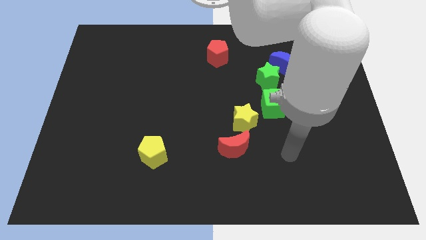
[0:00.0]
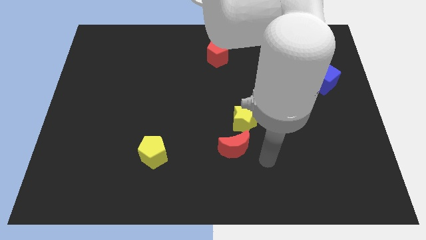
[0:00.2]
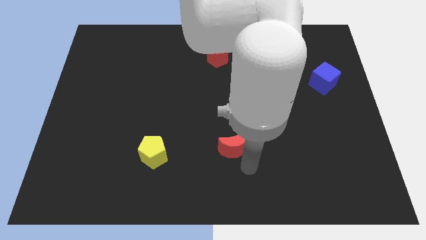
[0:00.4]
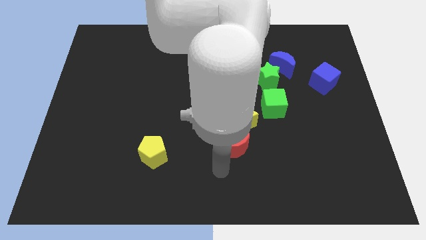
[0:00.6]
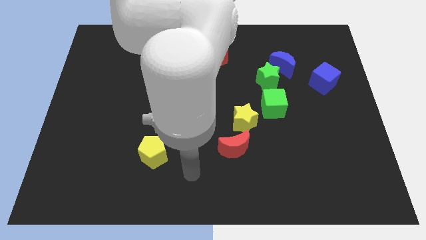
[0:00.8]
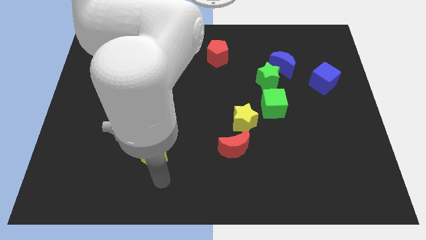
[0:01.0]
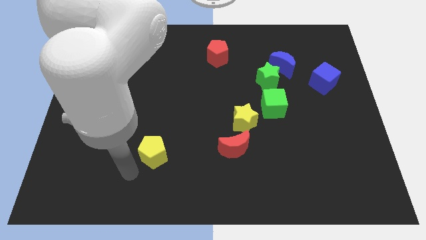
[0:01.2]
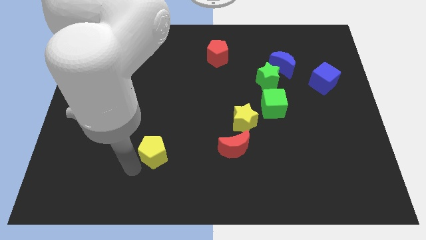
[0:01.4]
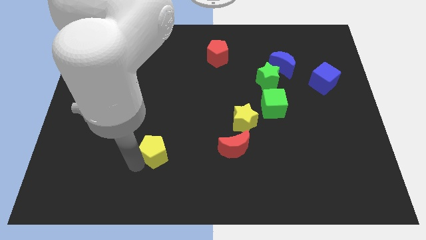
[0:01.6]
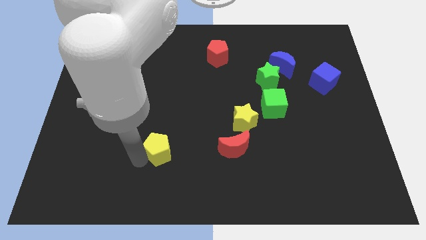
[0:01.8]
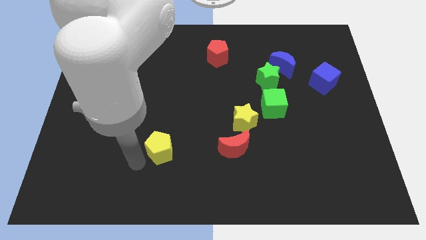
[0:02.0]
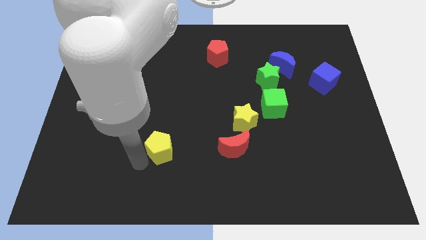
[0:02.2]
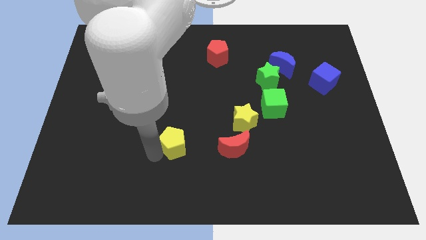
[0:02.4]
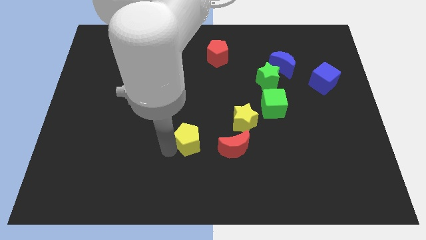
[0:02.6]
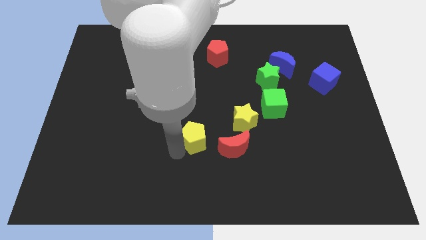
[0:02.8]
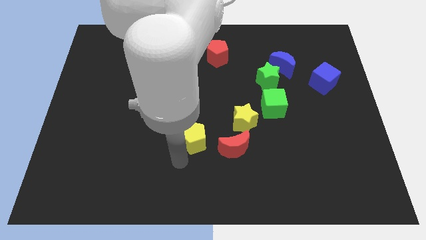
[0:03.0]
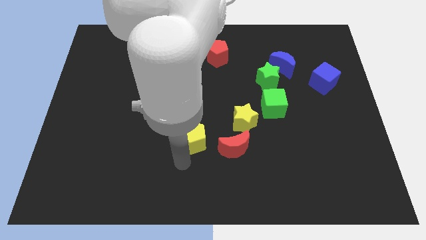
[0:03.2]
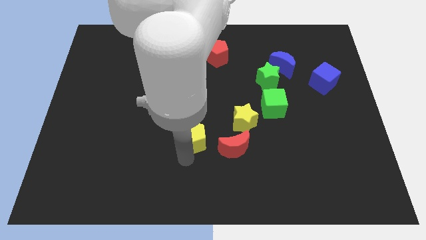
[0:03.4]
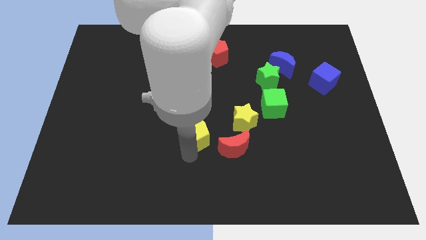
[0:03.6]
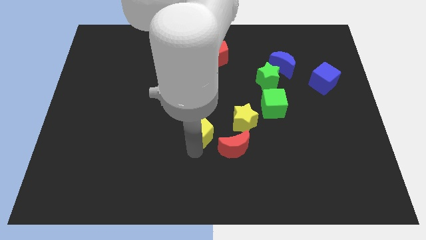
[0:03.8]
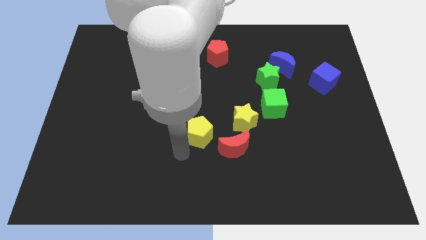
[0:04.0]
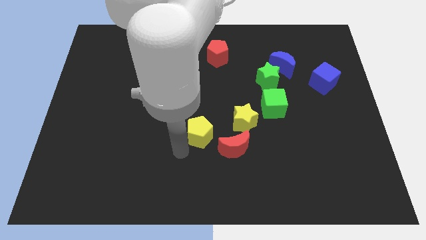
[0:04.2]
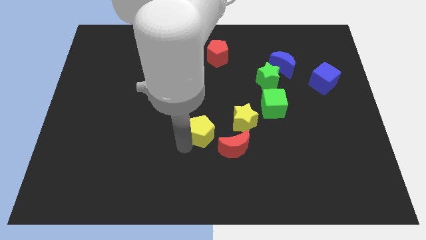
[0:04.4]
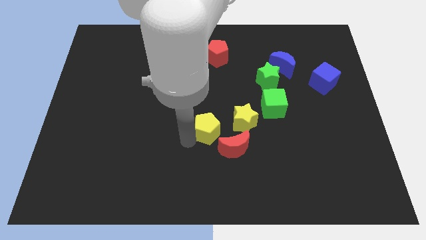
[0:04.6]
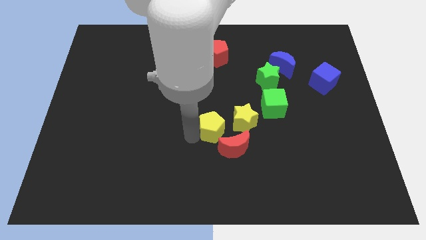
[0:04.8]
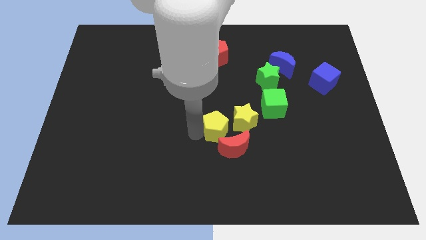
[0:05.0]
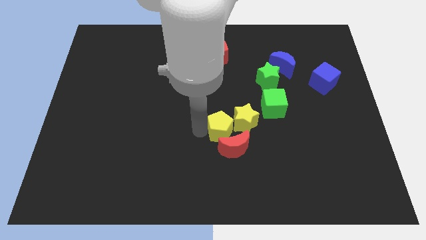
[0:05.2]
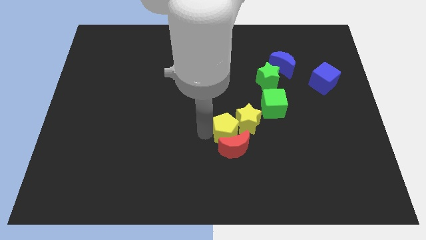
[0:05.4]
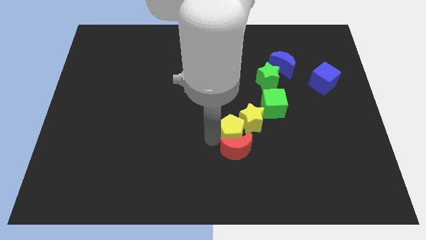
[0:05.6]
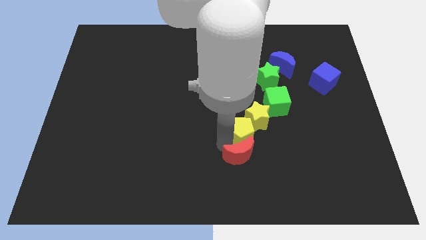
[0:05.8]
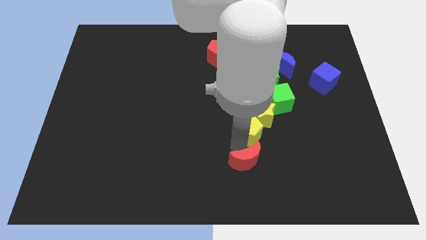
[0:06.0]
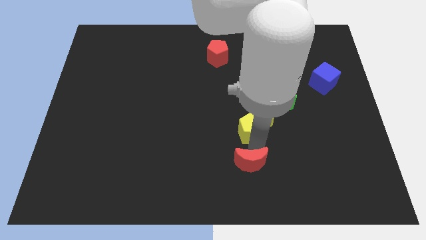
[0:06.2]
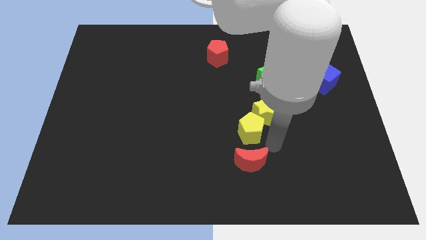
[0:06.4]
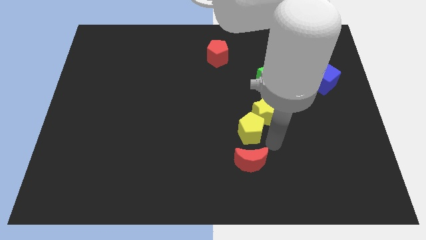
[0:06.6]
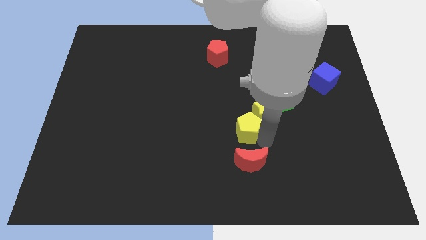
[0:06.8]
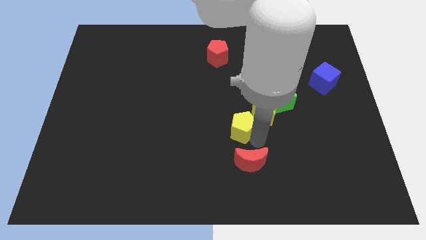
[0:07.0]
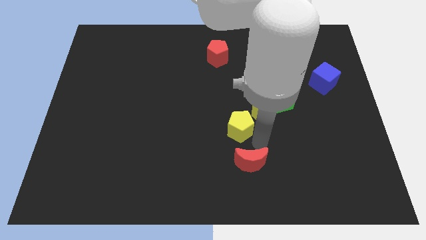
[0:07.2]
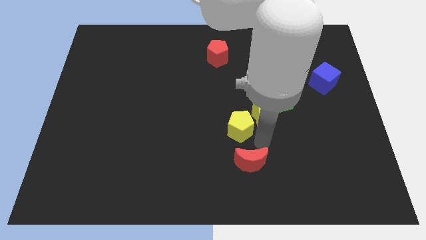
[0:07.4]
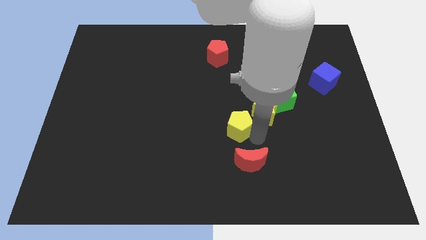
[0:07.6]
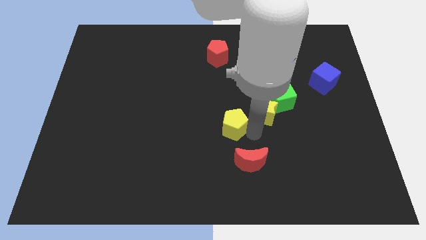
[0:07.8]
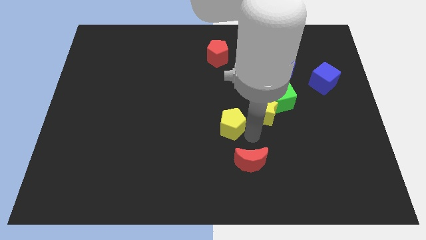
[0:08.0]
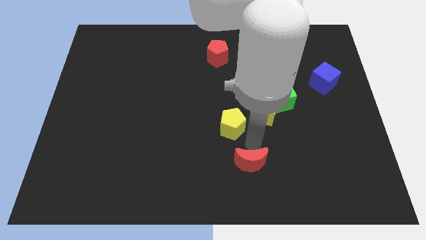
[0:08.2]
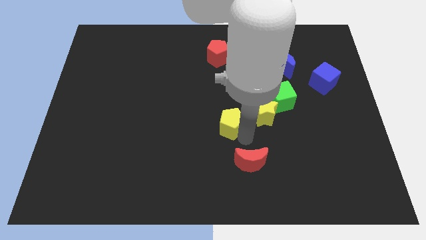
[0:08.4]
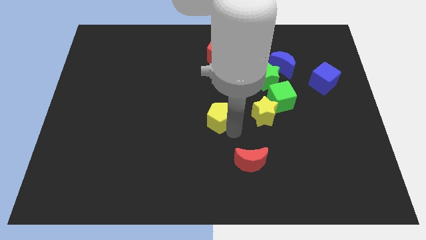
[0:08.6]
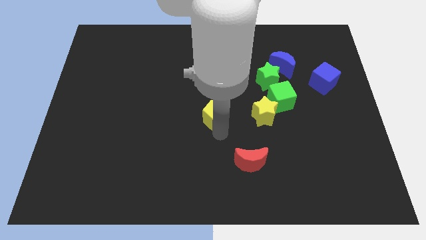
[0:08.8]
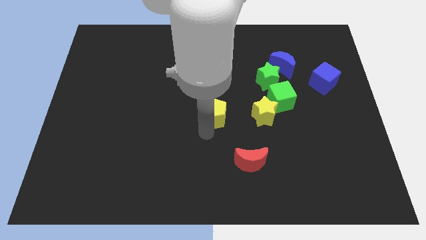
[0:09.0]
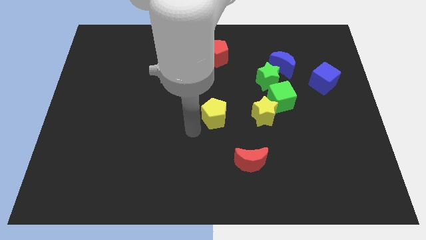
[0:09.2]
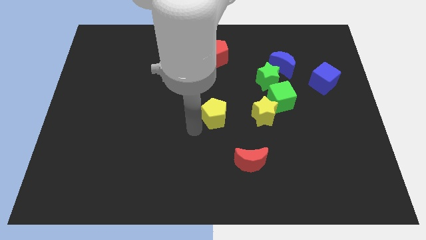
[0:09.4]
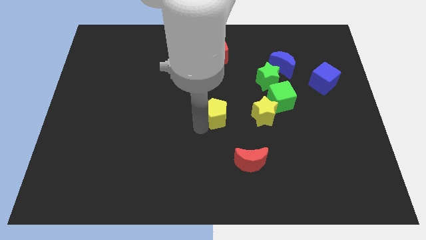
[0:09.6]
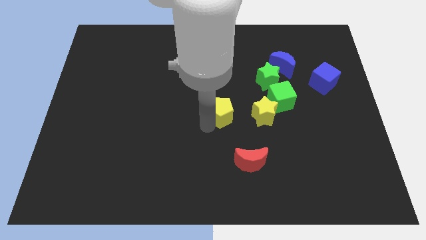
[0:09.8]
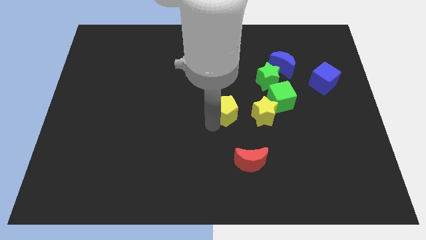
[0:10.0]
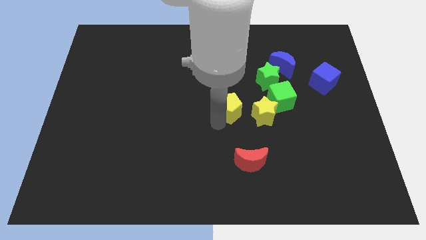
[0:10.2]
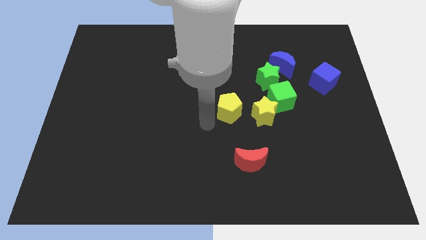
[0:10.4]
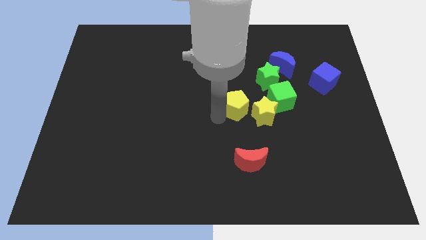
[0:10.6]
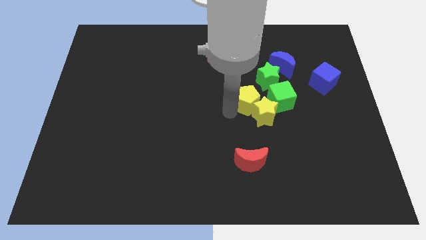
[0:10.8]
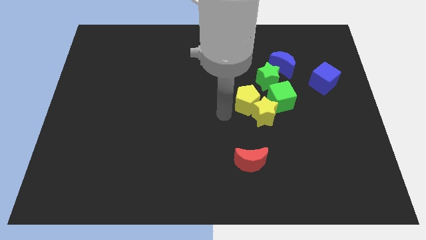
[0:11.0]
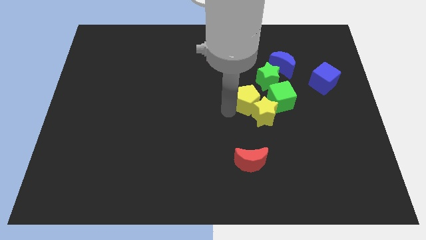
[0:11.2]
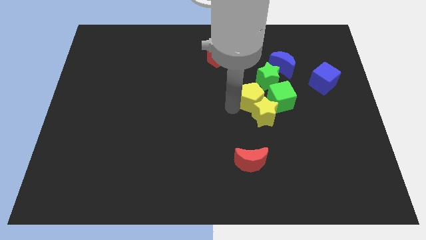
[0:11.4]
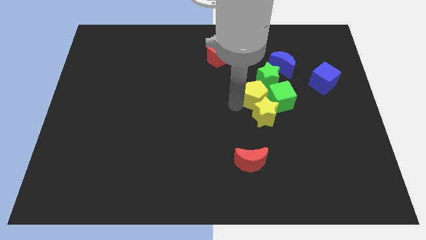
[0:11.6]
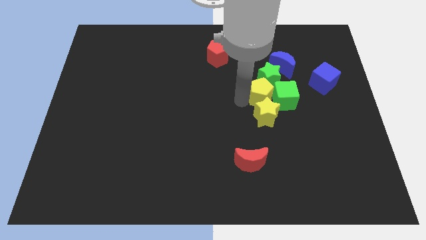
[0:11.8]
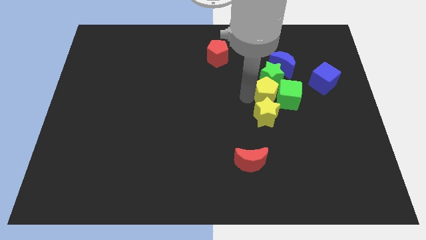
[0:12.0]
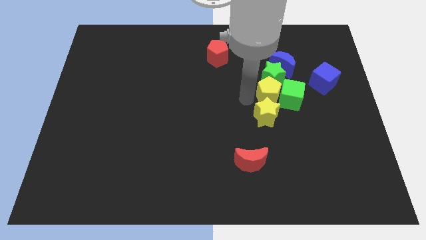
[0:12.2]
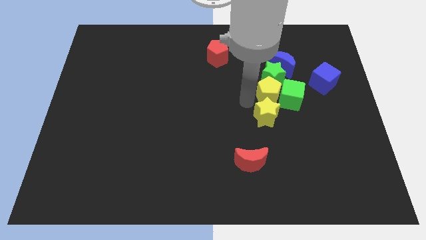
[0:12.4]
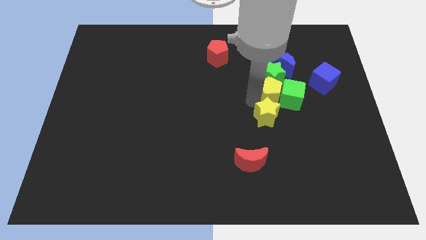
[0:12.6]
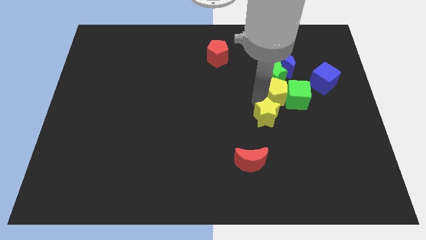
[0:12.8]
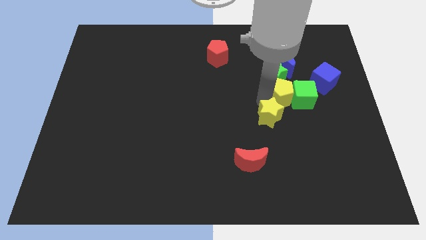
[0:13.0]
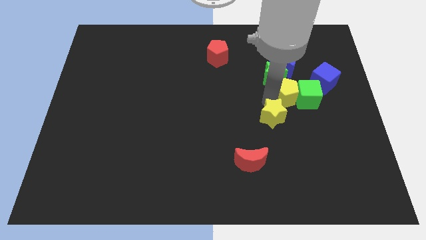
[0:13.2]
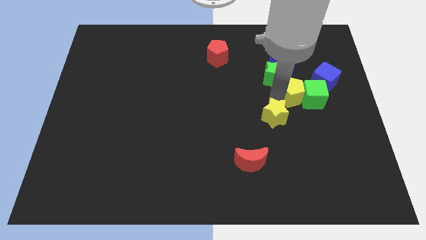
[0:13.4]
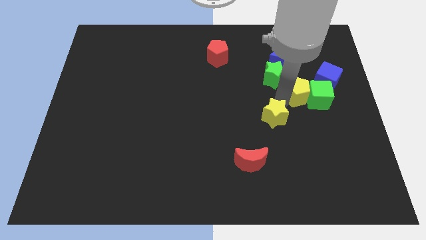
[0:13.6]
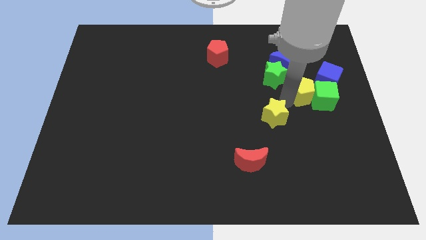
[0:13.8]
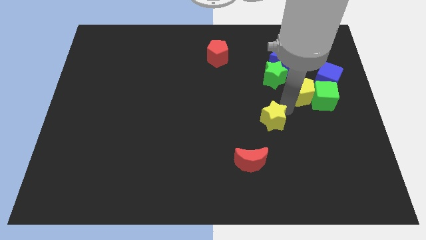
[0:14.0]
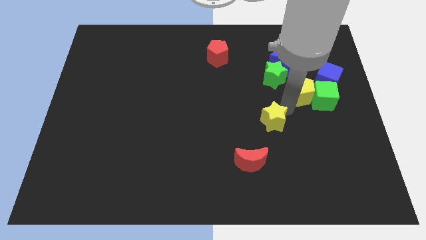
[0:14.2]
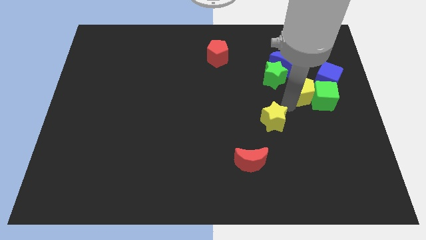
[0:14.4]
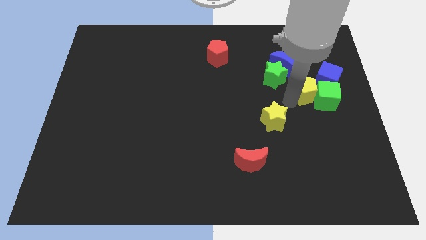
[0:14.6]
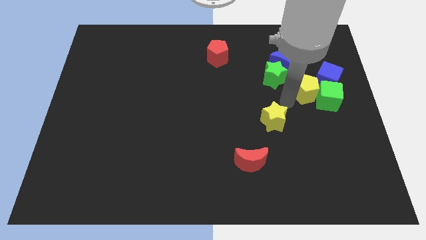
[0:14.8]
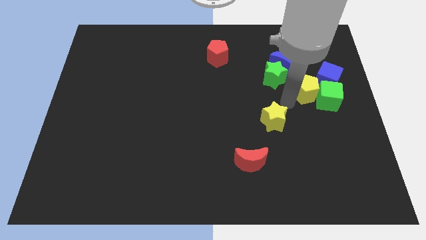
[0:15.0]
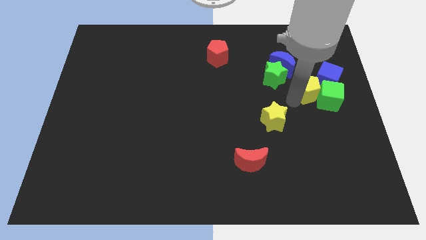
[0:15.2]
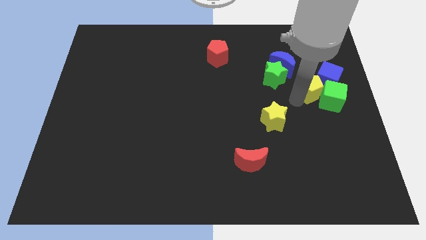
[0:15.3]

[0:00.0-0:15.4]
put the yellow pentagon towards the blue cube
